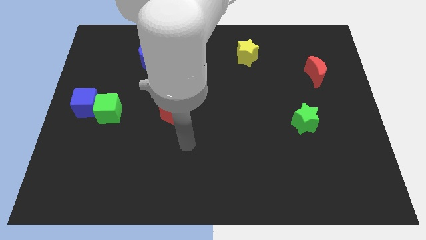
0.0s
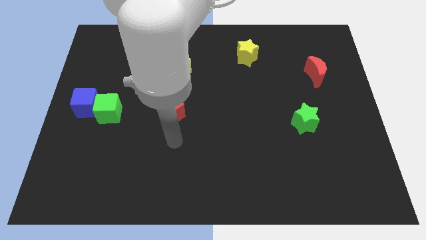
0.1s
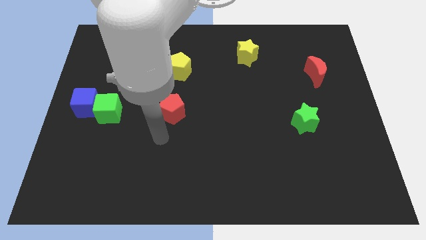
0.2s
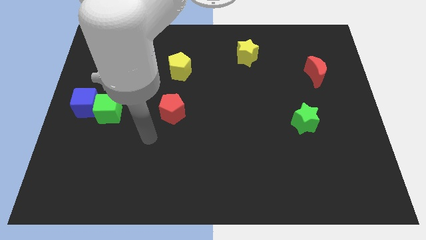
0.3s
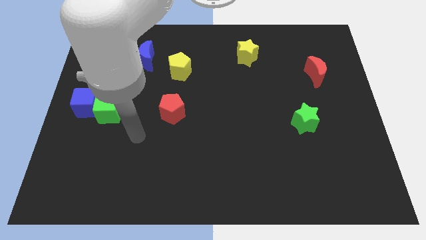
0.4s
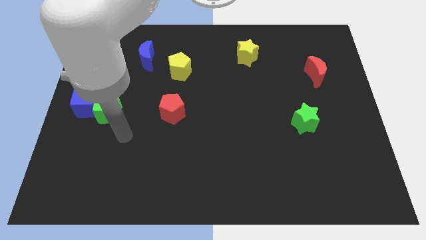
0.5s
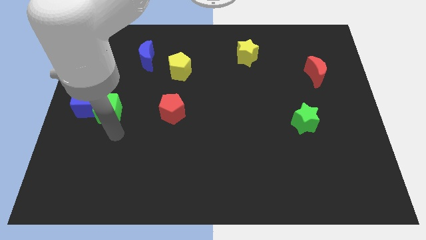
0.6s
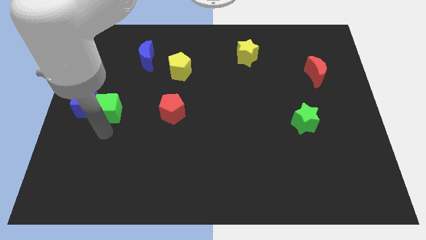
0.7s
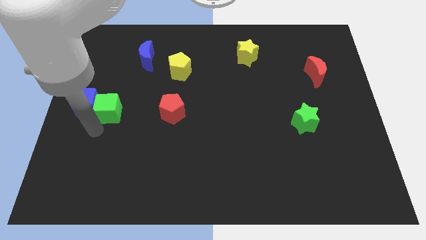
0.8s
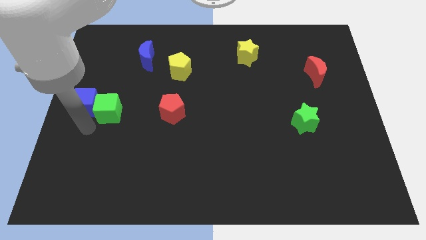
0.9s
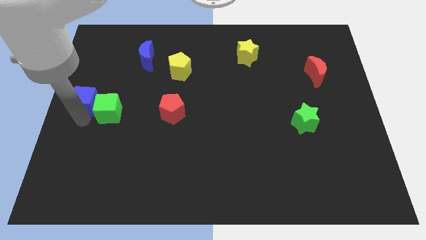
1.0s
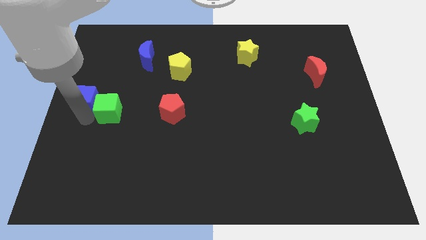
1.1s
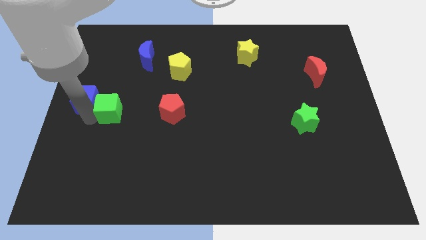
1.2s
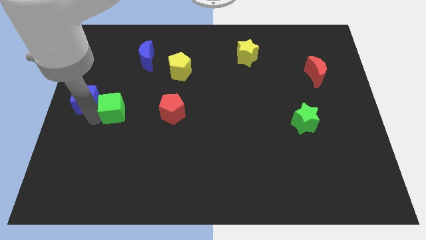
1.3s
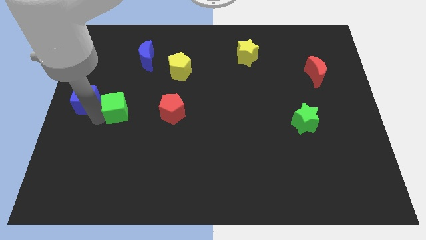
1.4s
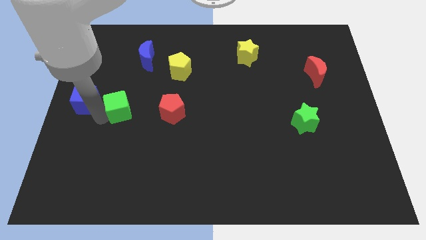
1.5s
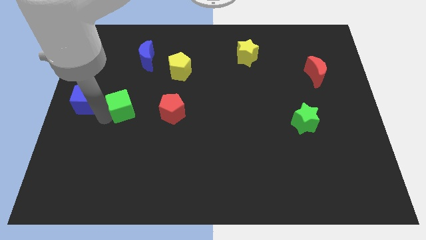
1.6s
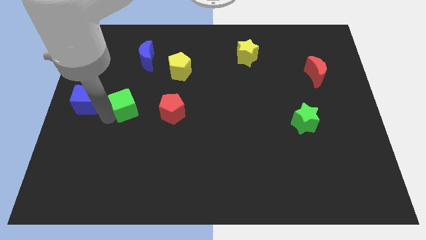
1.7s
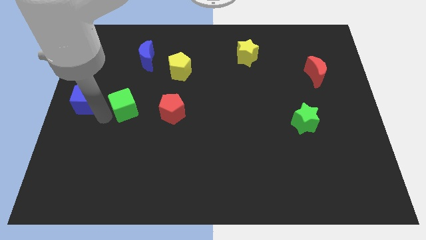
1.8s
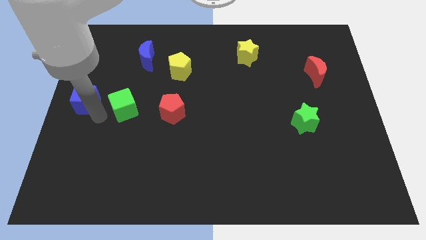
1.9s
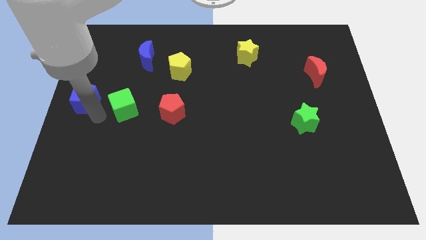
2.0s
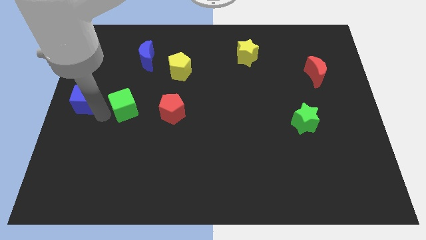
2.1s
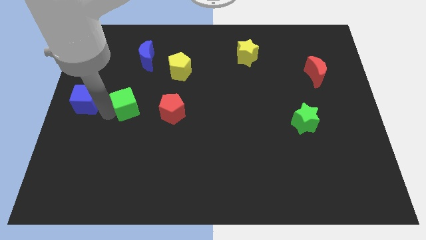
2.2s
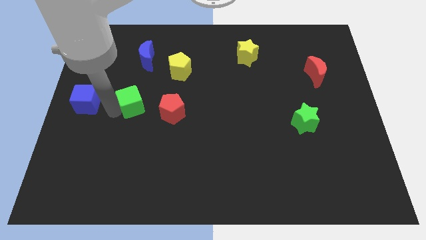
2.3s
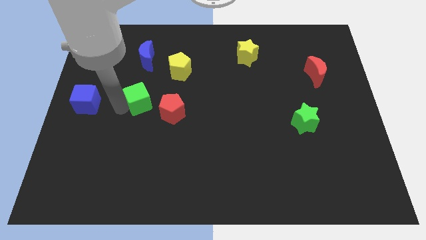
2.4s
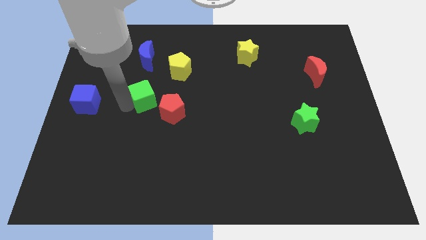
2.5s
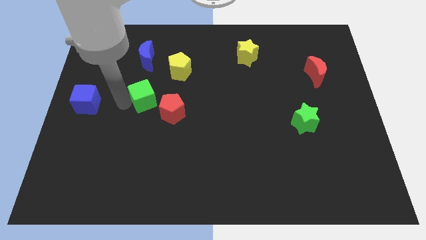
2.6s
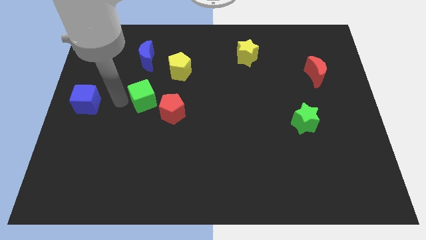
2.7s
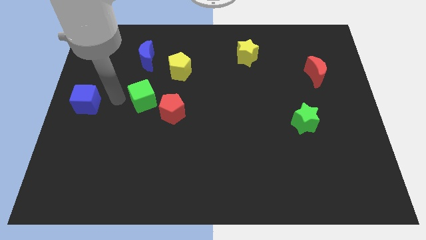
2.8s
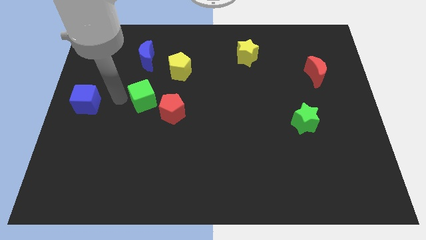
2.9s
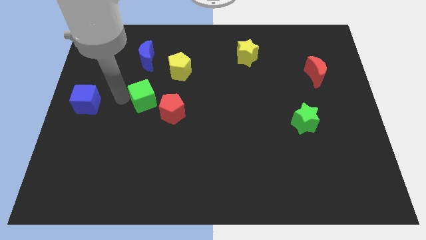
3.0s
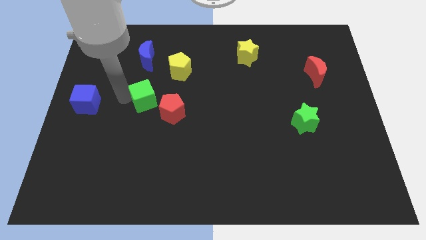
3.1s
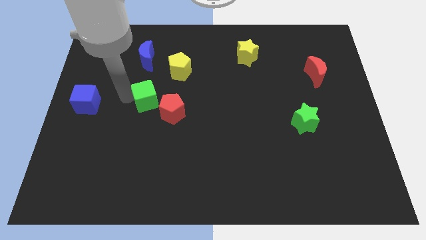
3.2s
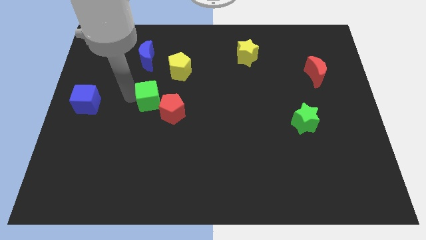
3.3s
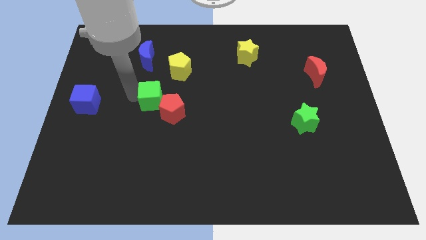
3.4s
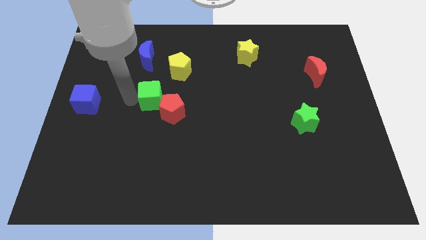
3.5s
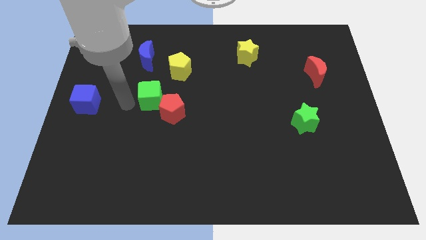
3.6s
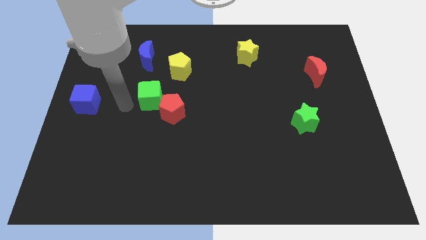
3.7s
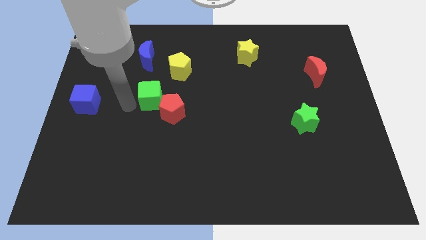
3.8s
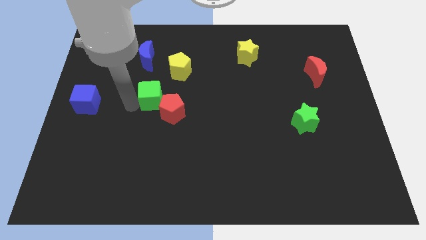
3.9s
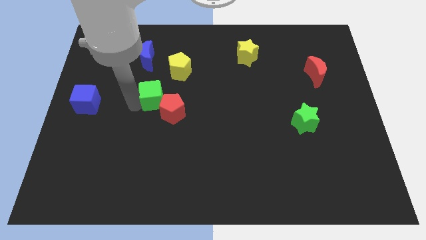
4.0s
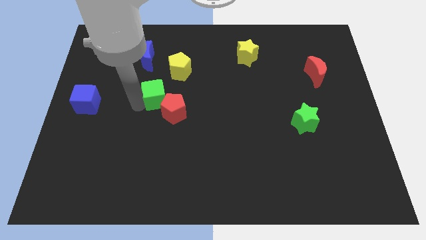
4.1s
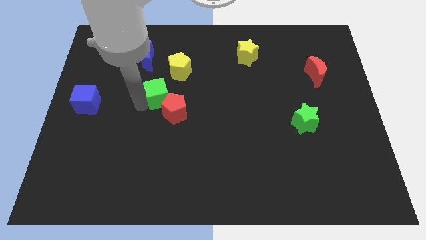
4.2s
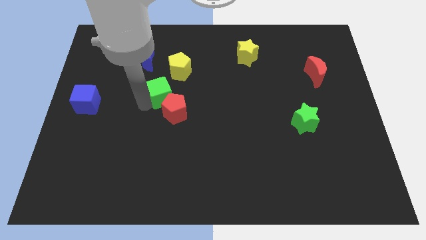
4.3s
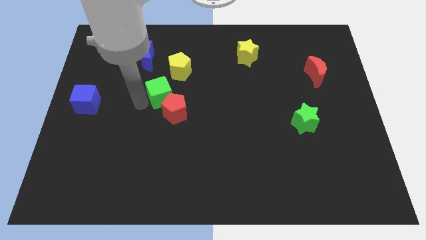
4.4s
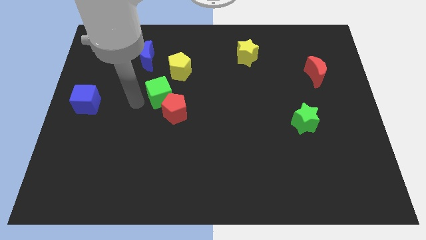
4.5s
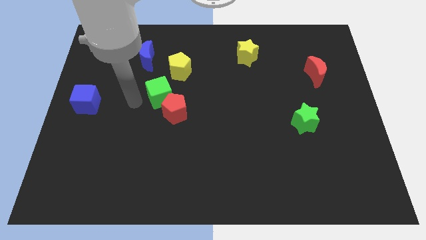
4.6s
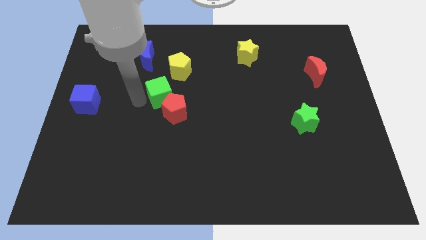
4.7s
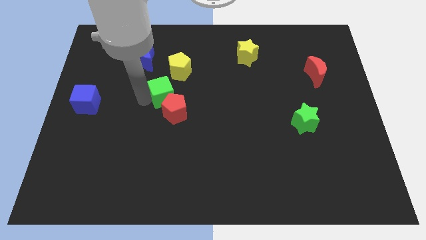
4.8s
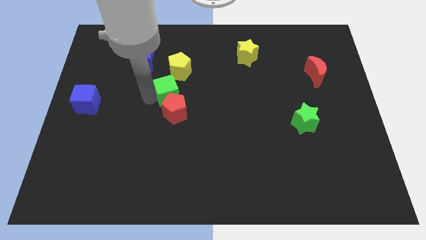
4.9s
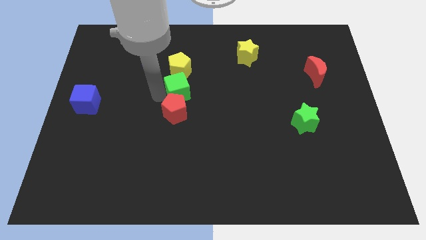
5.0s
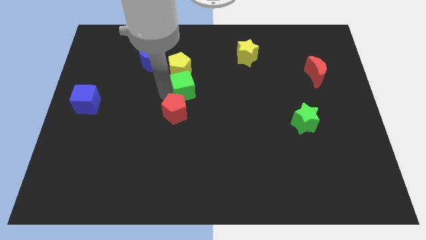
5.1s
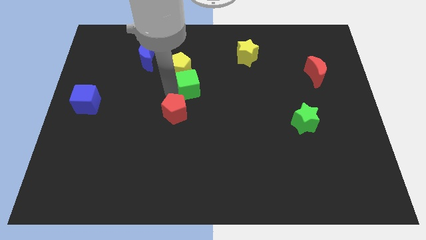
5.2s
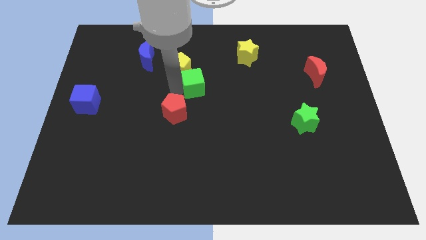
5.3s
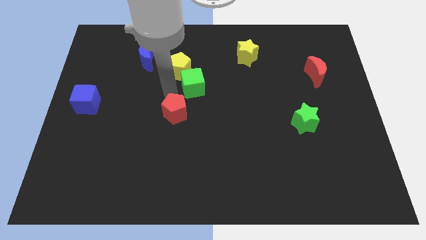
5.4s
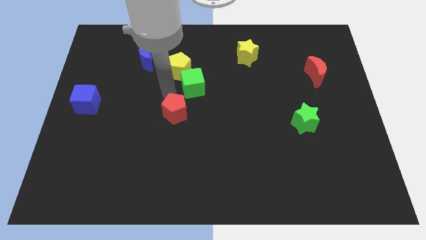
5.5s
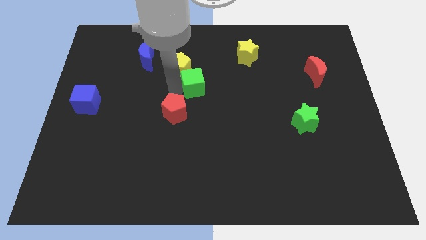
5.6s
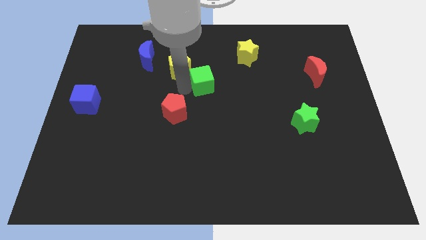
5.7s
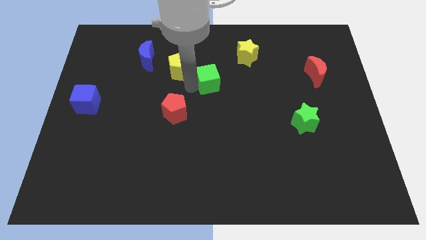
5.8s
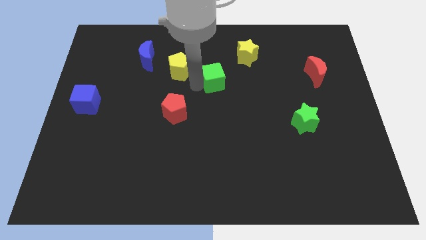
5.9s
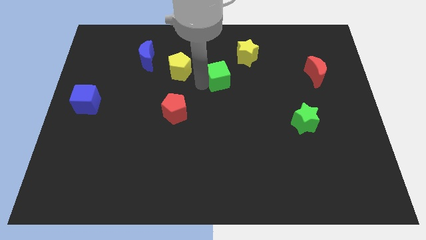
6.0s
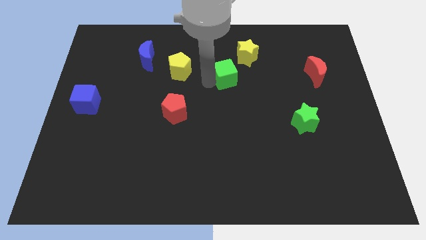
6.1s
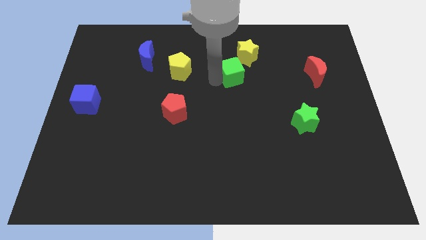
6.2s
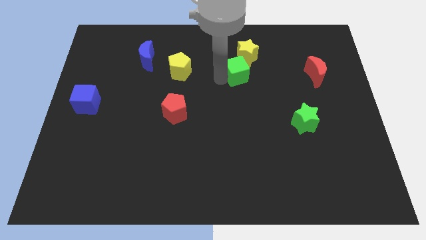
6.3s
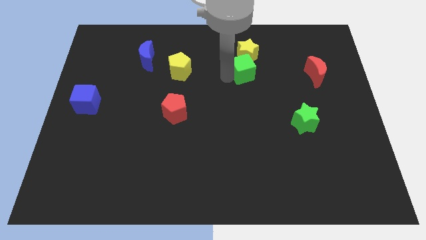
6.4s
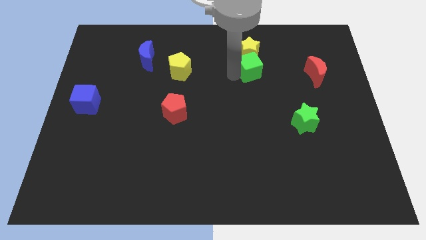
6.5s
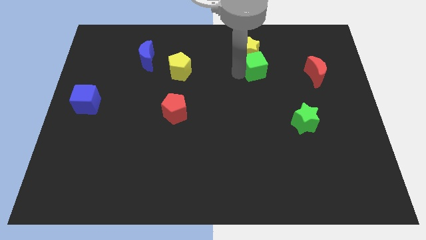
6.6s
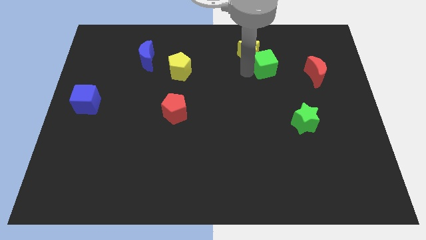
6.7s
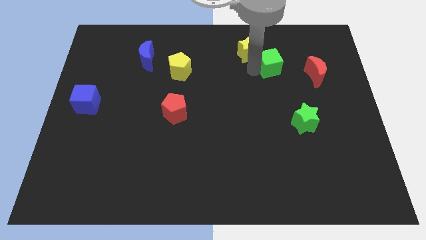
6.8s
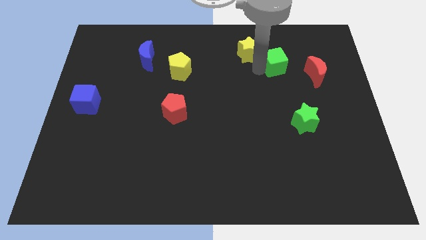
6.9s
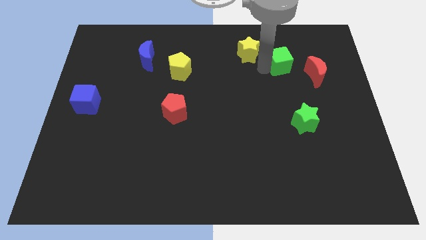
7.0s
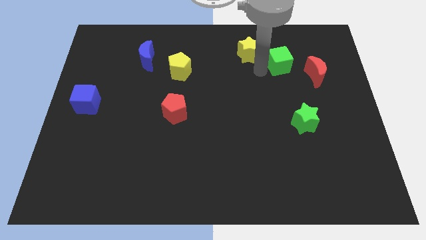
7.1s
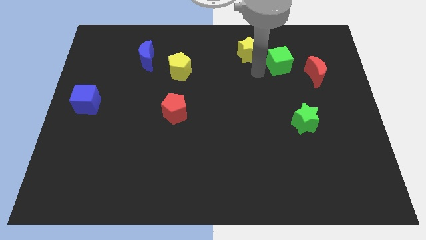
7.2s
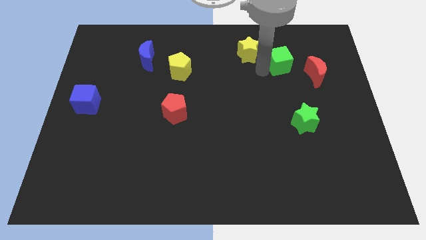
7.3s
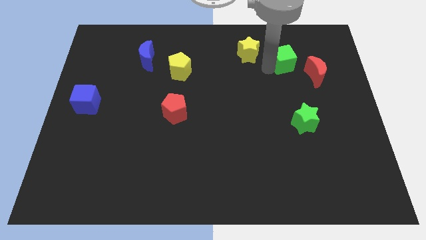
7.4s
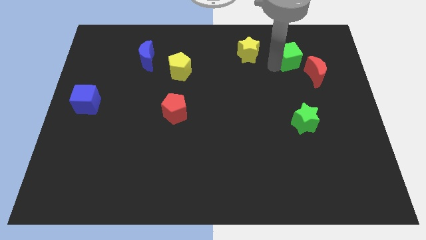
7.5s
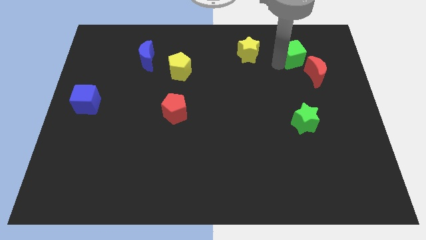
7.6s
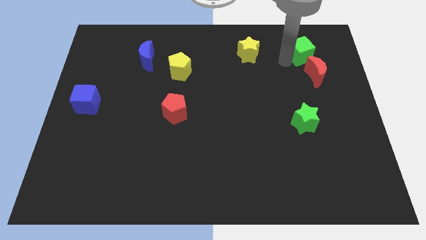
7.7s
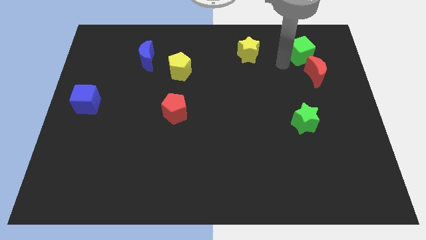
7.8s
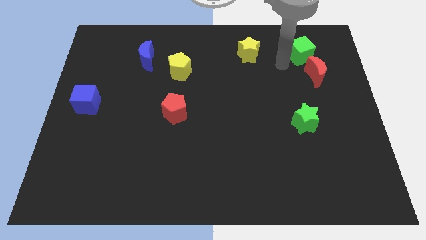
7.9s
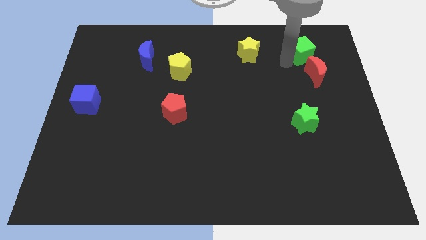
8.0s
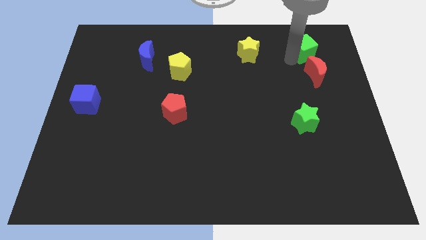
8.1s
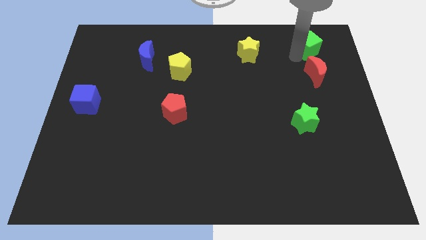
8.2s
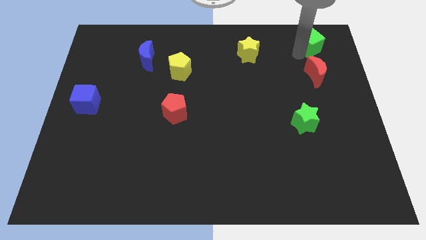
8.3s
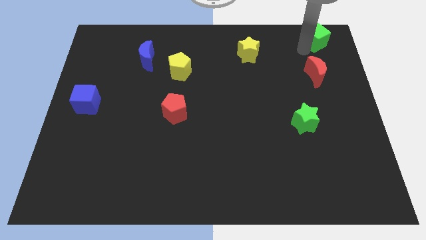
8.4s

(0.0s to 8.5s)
move the green cube to the upper right corner
